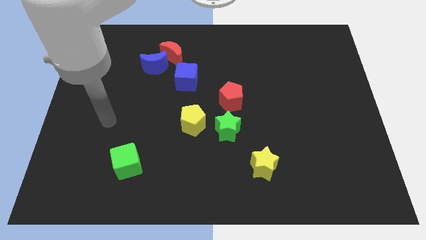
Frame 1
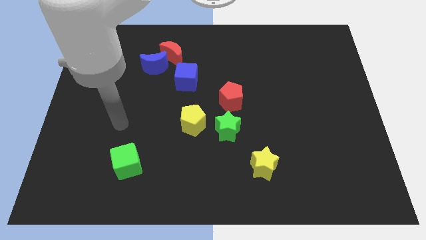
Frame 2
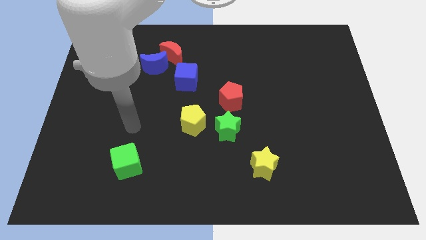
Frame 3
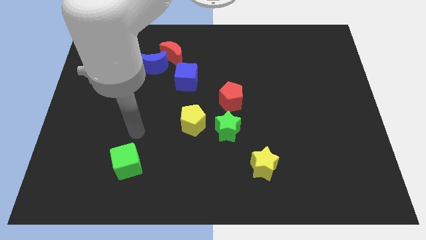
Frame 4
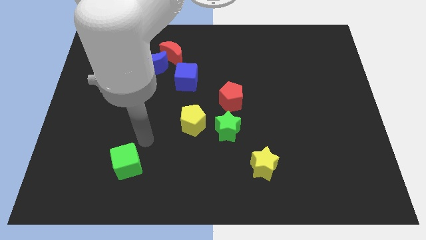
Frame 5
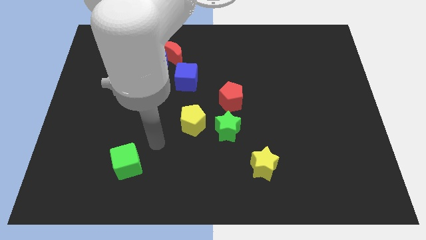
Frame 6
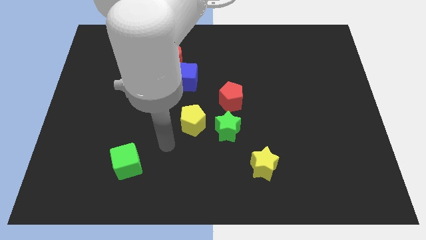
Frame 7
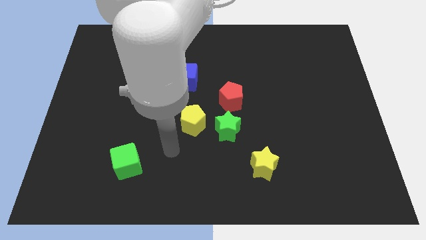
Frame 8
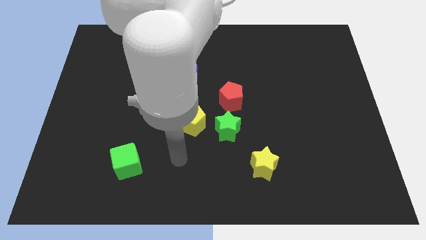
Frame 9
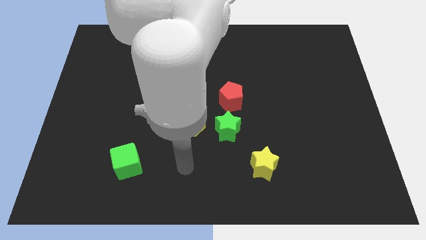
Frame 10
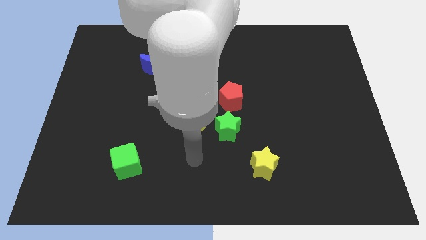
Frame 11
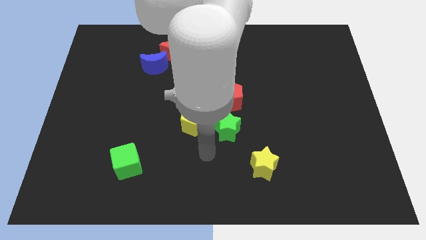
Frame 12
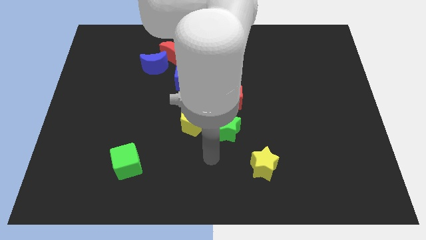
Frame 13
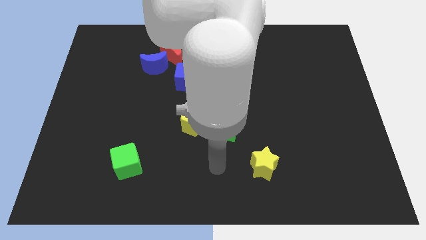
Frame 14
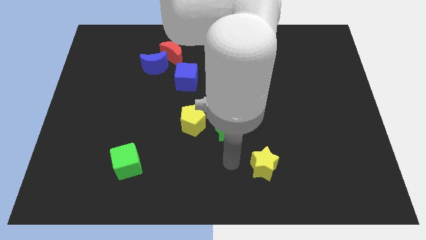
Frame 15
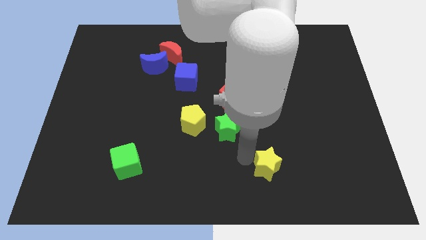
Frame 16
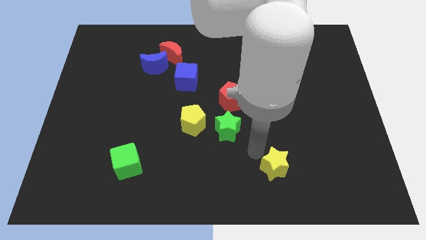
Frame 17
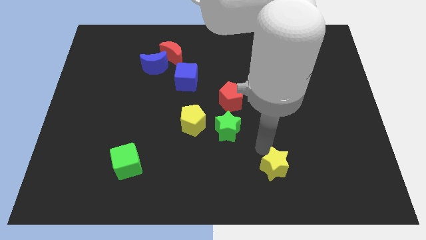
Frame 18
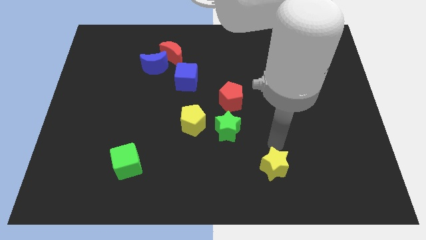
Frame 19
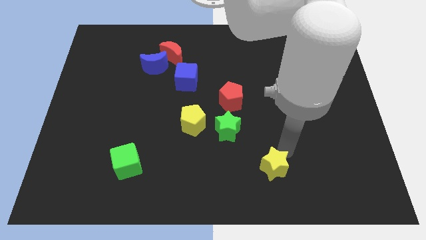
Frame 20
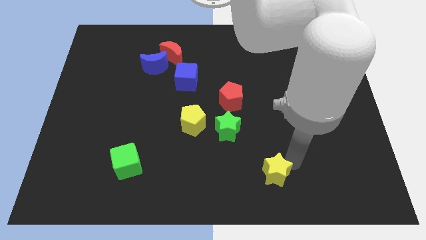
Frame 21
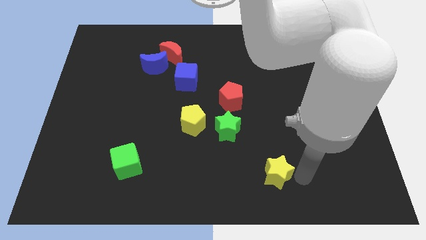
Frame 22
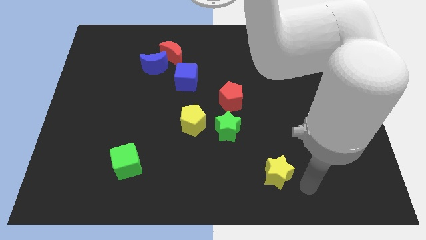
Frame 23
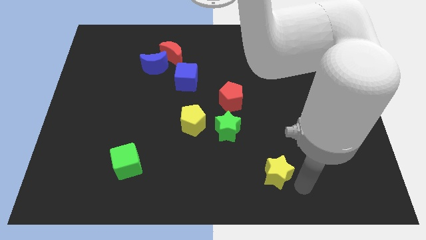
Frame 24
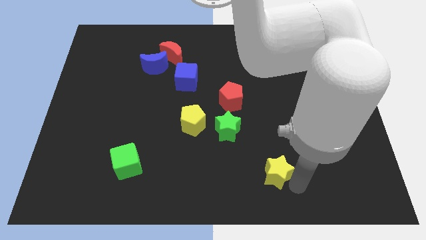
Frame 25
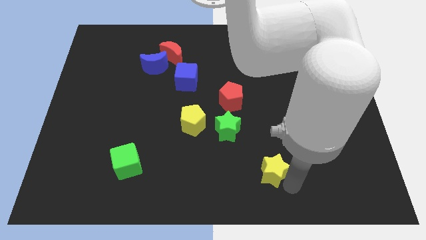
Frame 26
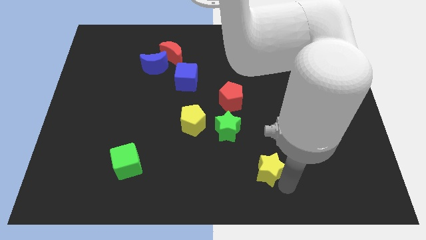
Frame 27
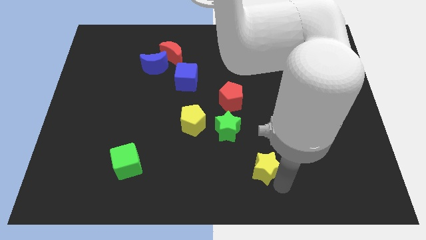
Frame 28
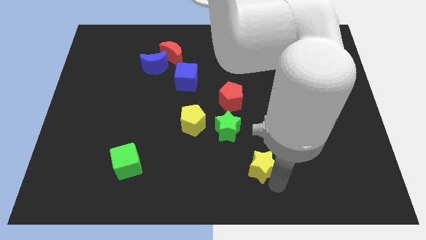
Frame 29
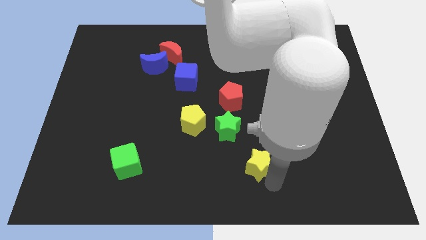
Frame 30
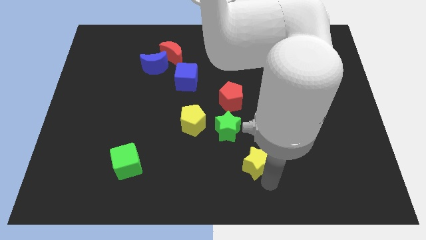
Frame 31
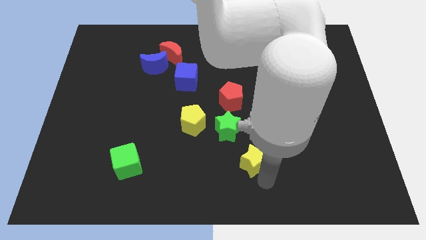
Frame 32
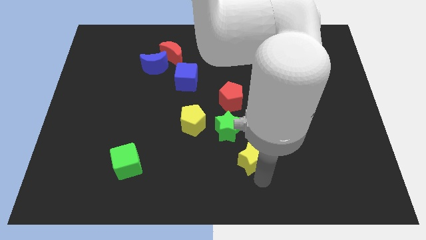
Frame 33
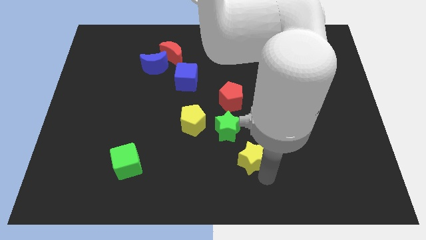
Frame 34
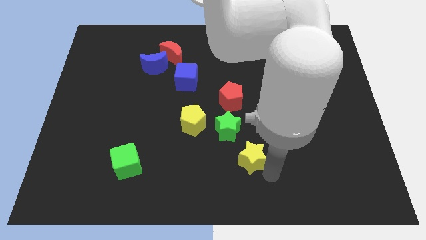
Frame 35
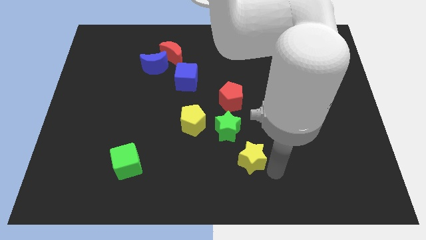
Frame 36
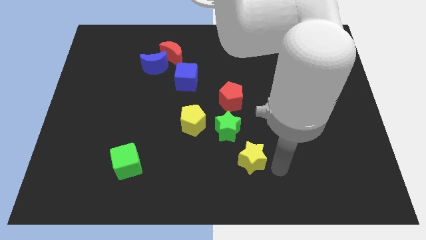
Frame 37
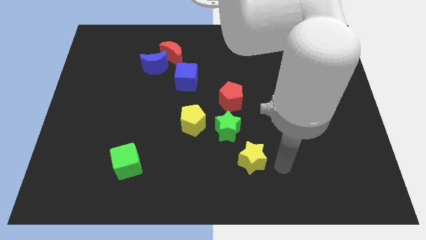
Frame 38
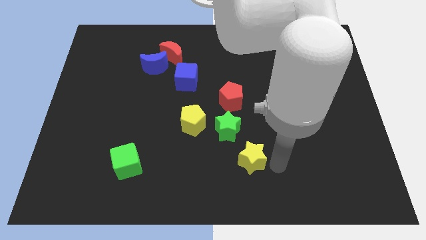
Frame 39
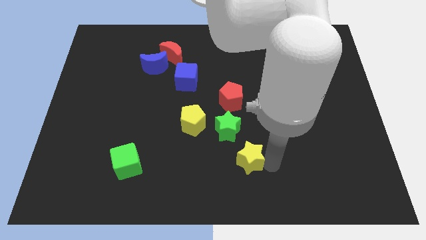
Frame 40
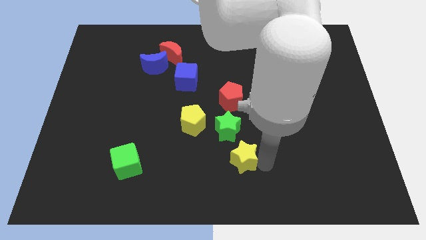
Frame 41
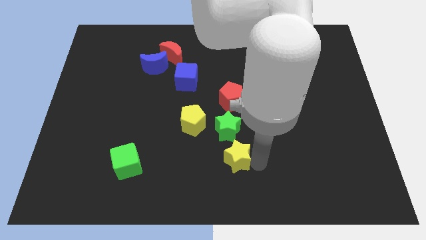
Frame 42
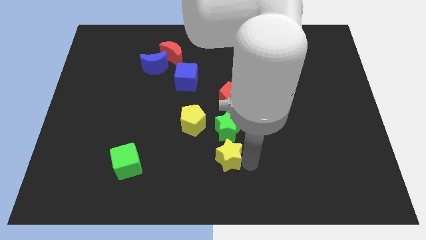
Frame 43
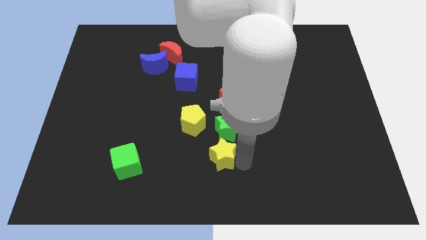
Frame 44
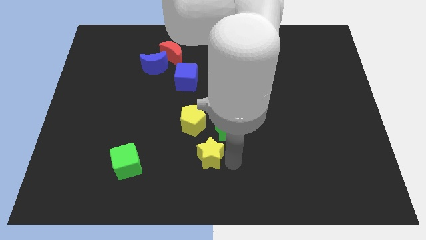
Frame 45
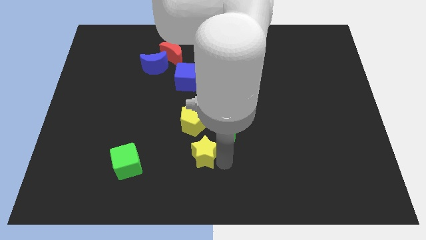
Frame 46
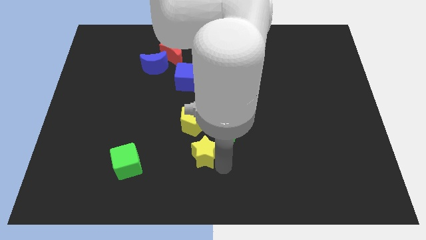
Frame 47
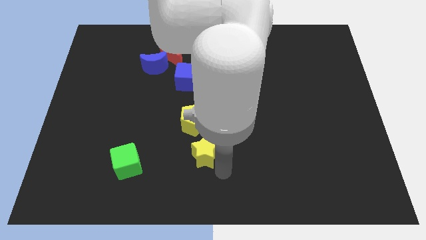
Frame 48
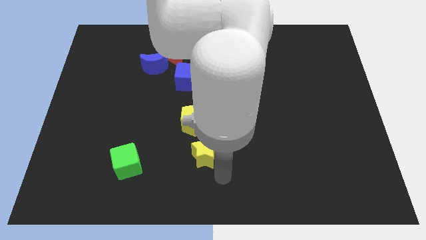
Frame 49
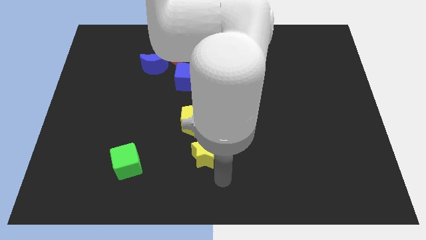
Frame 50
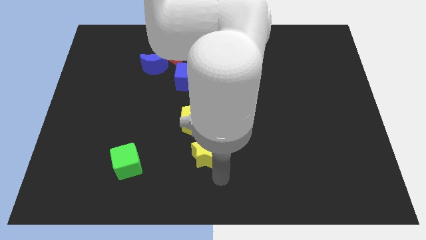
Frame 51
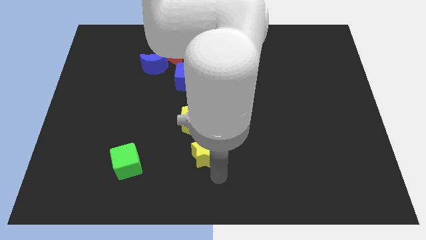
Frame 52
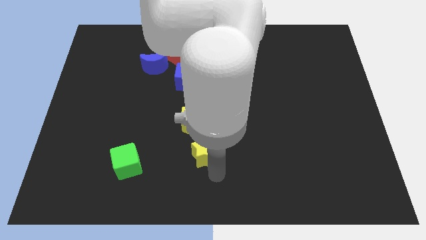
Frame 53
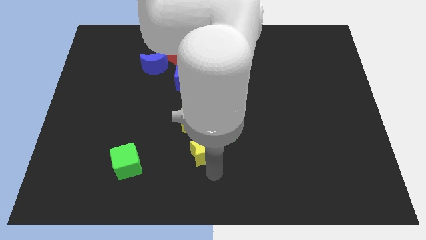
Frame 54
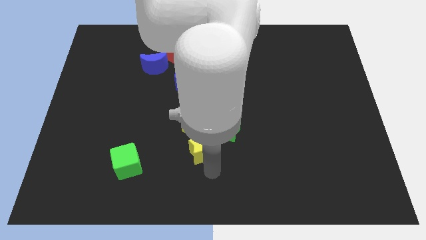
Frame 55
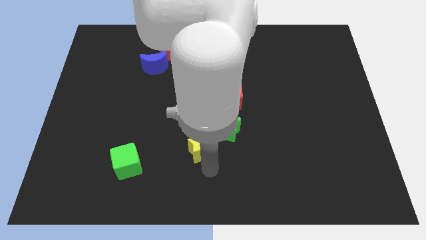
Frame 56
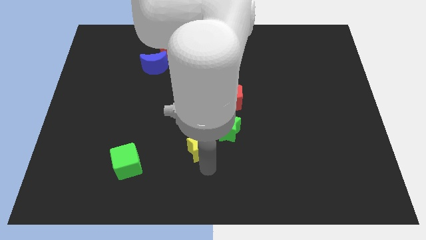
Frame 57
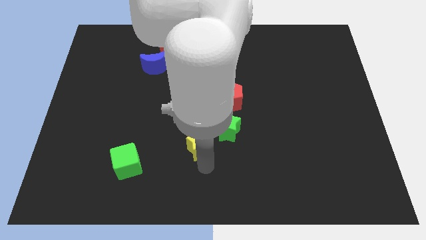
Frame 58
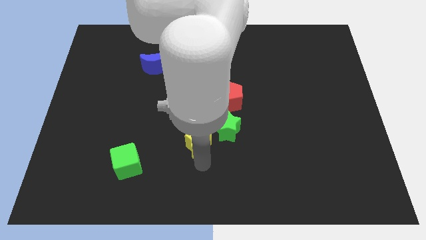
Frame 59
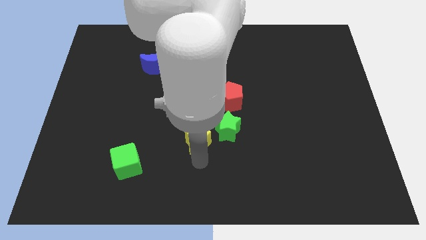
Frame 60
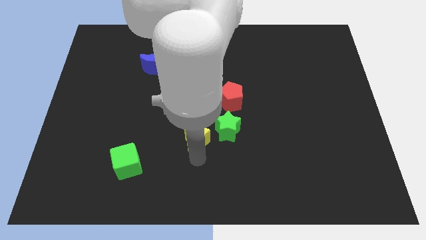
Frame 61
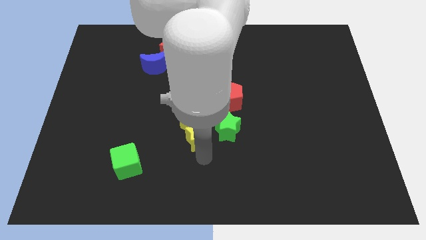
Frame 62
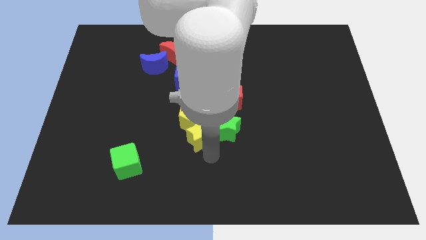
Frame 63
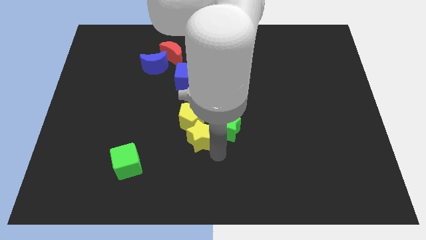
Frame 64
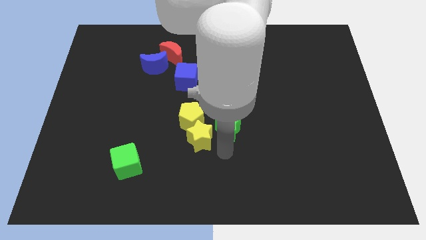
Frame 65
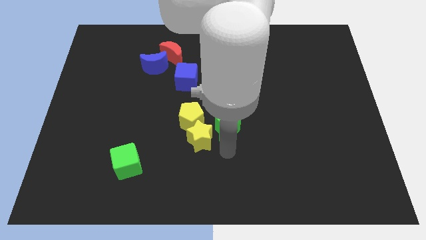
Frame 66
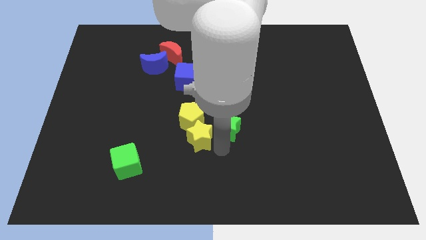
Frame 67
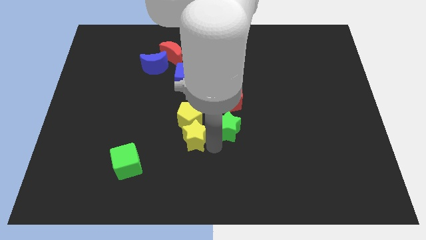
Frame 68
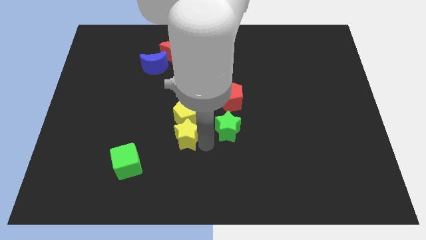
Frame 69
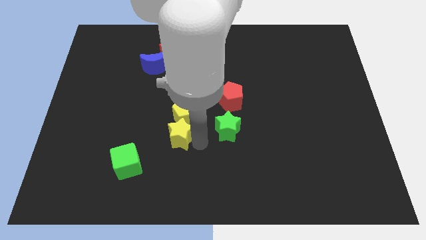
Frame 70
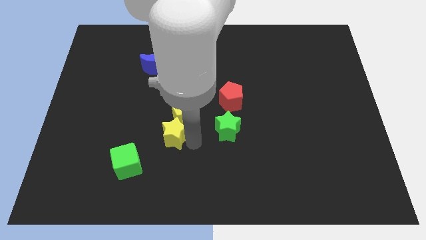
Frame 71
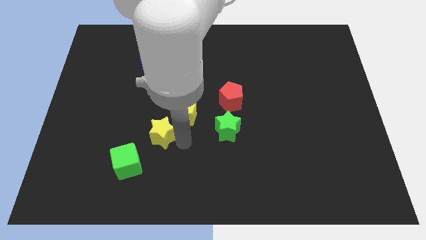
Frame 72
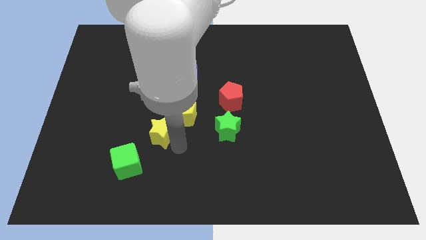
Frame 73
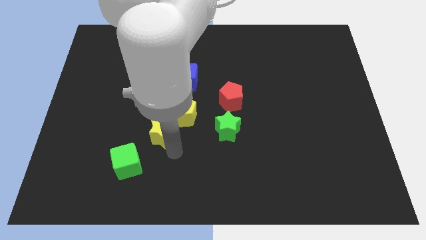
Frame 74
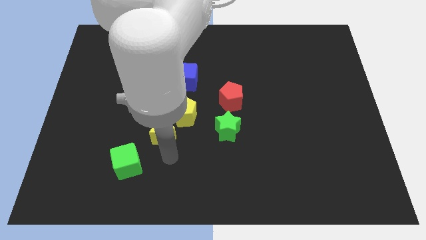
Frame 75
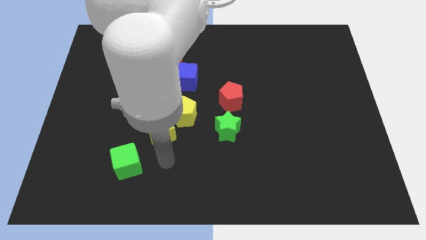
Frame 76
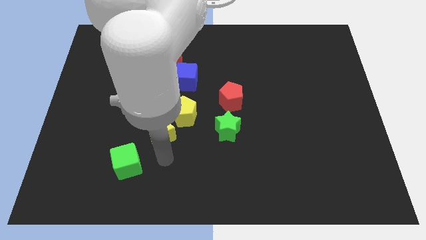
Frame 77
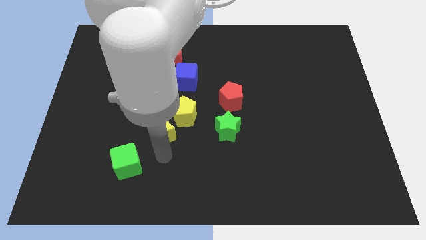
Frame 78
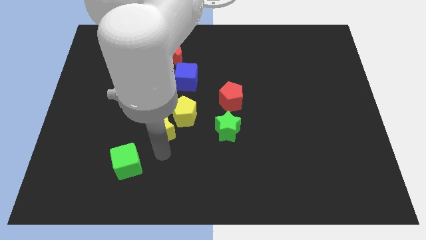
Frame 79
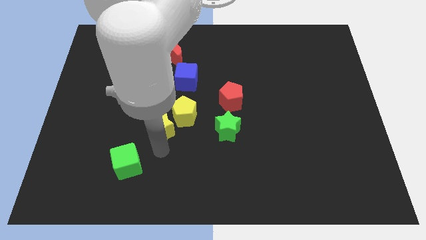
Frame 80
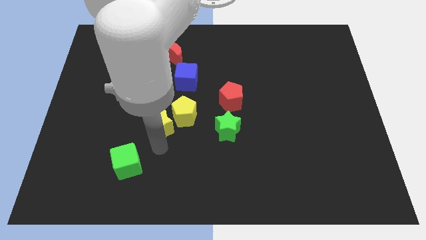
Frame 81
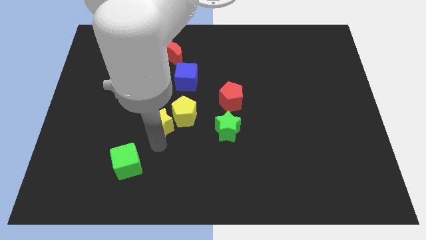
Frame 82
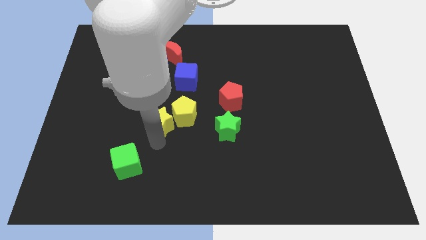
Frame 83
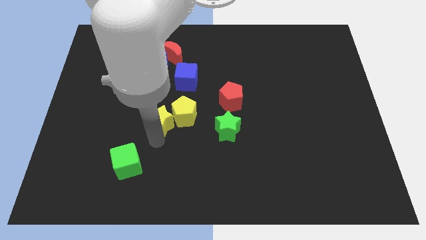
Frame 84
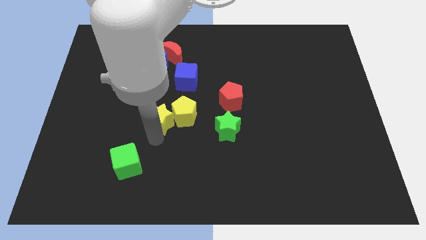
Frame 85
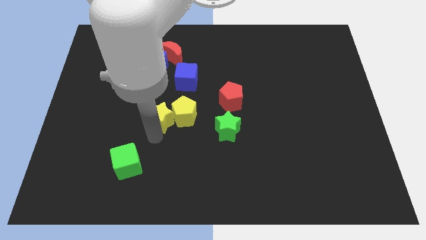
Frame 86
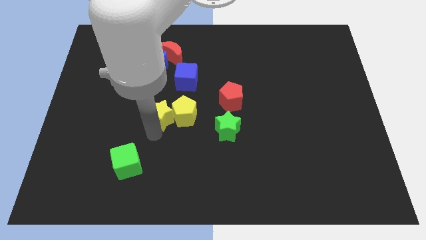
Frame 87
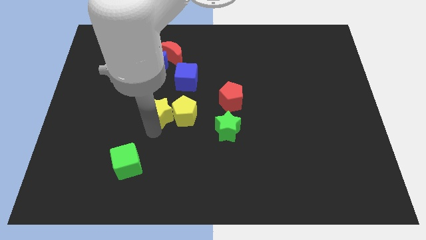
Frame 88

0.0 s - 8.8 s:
slide the yellow star to the bottom side of the blue moon
